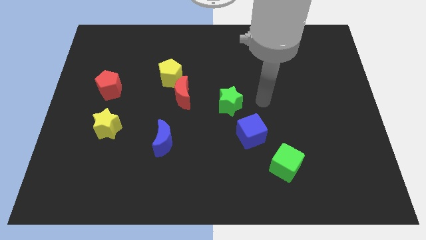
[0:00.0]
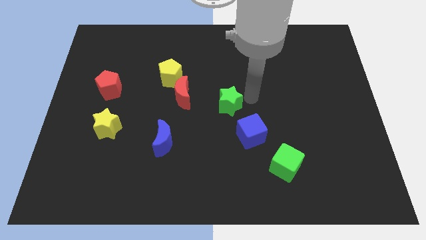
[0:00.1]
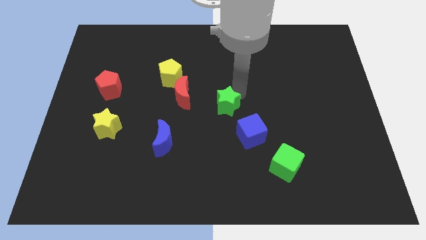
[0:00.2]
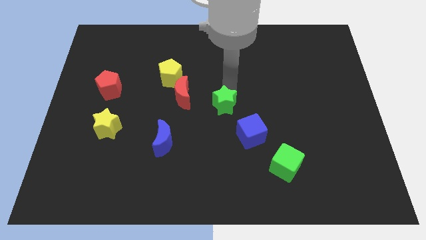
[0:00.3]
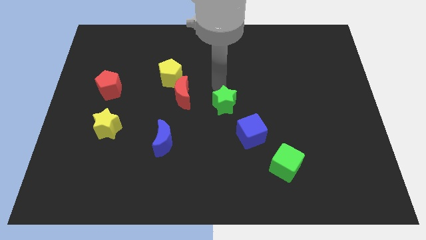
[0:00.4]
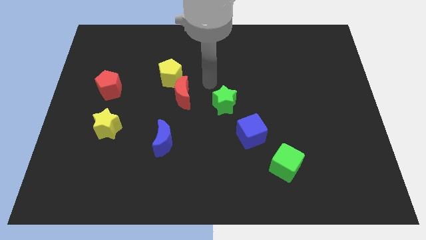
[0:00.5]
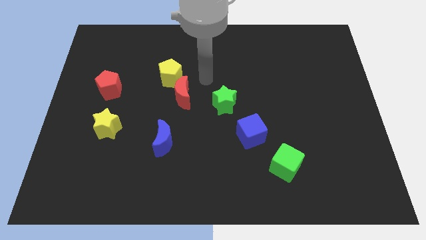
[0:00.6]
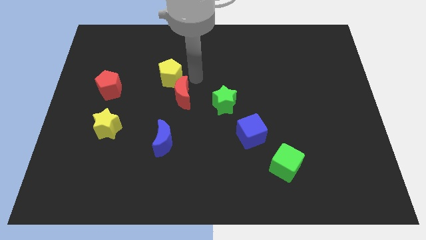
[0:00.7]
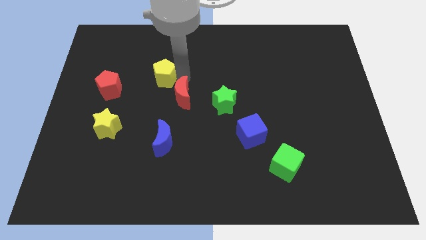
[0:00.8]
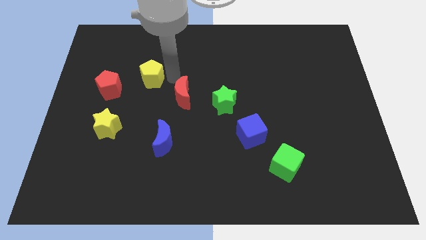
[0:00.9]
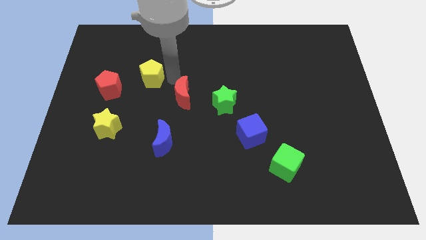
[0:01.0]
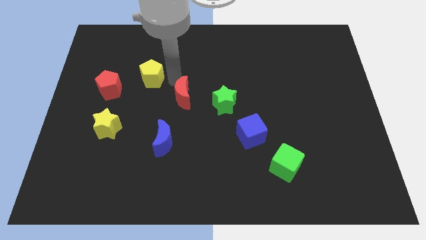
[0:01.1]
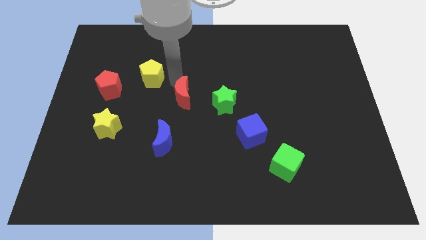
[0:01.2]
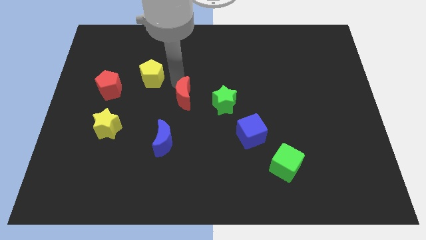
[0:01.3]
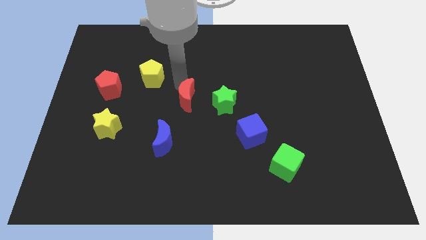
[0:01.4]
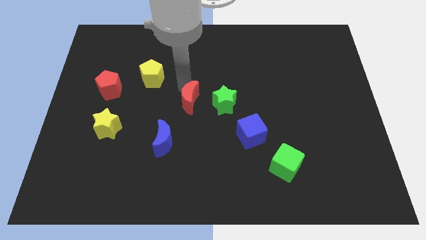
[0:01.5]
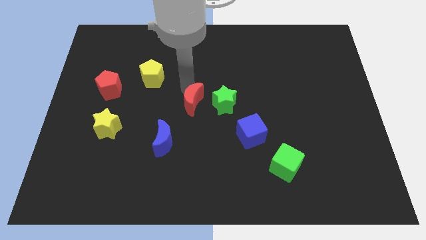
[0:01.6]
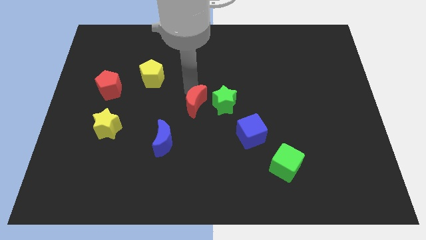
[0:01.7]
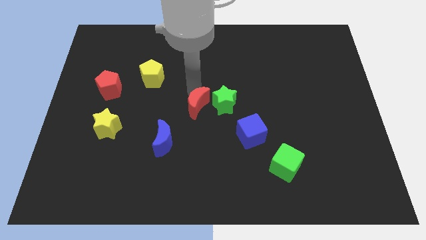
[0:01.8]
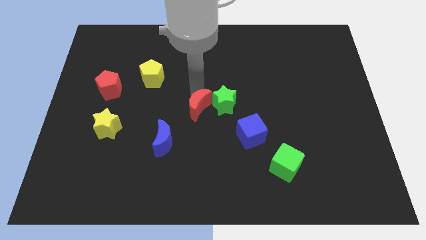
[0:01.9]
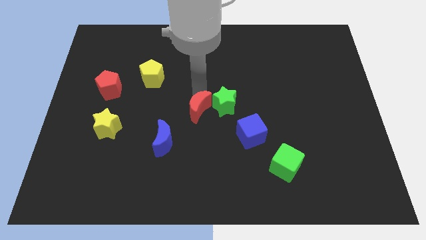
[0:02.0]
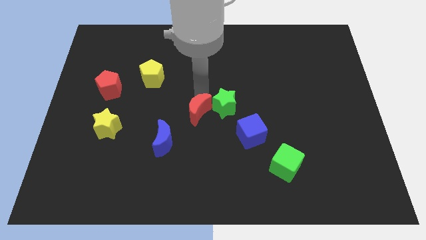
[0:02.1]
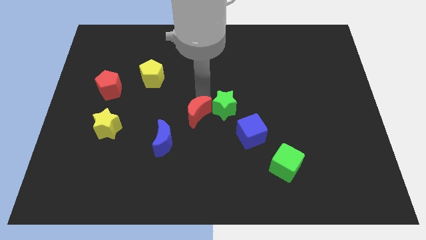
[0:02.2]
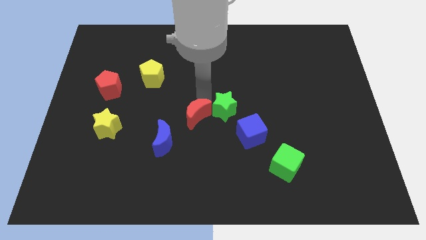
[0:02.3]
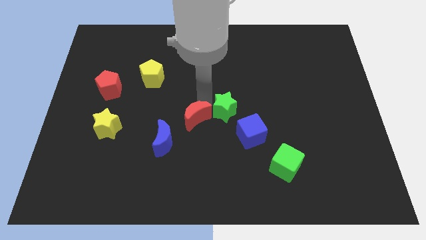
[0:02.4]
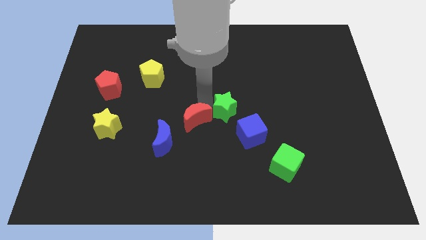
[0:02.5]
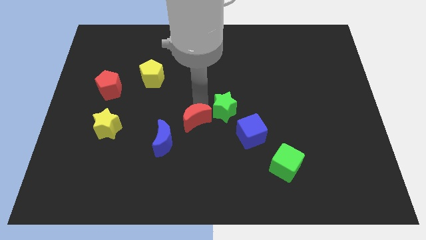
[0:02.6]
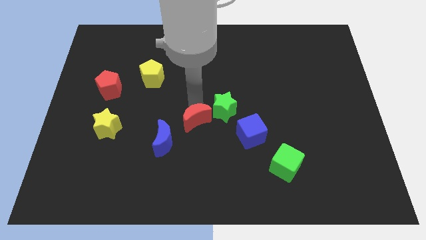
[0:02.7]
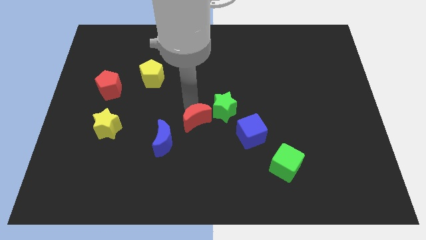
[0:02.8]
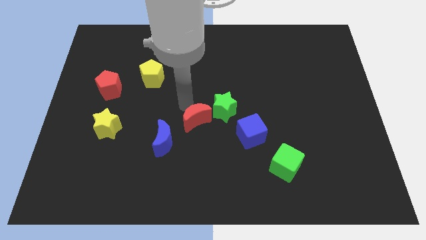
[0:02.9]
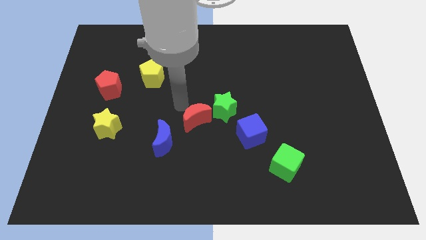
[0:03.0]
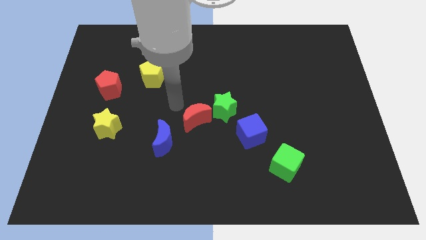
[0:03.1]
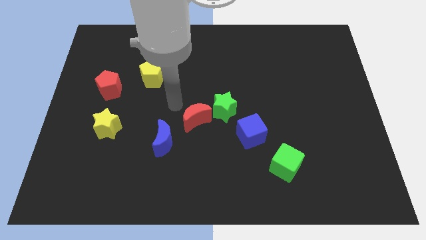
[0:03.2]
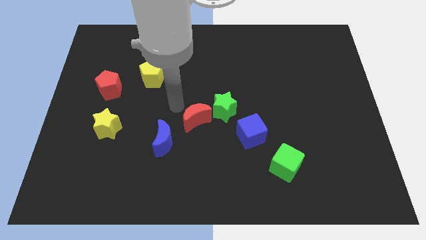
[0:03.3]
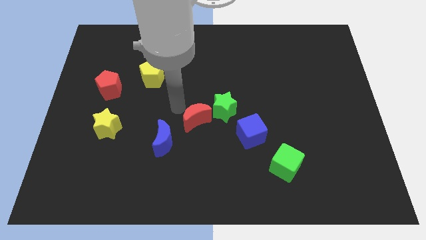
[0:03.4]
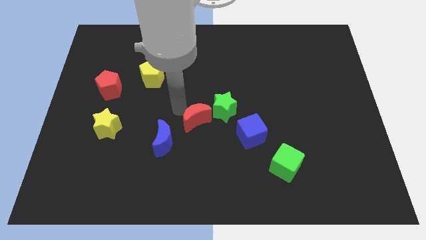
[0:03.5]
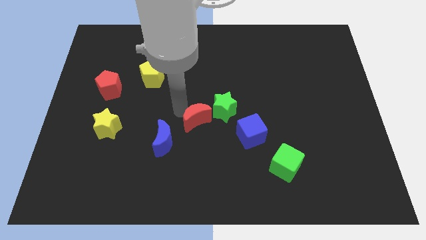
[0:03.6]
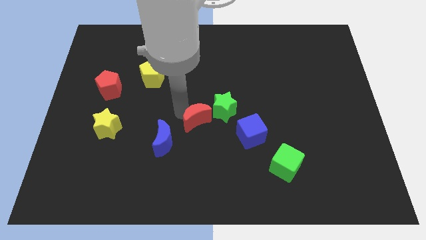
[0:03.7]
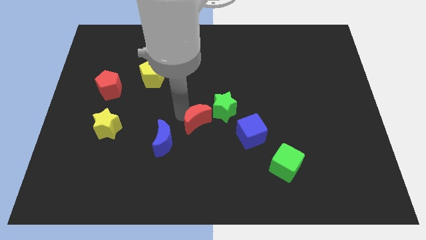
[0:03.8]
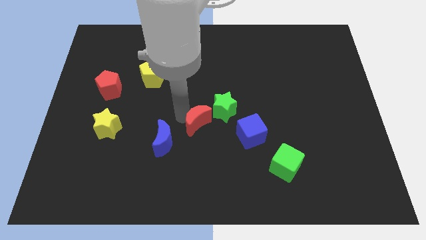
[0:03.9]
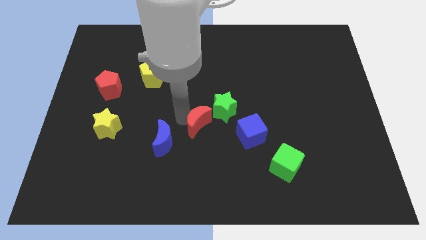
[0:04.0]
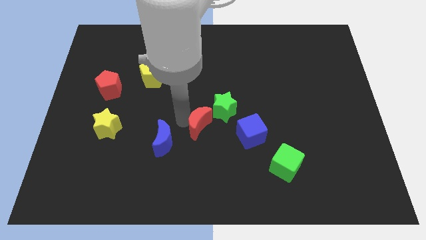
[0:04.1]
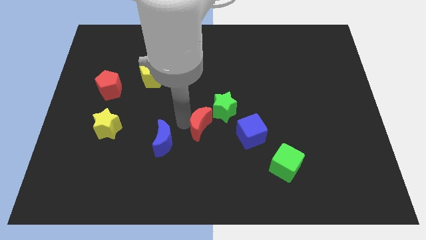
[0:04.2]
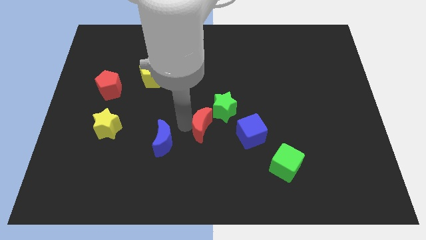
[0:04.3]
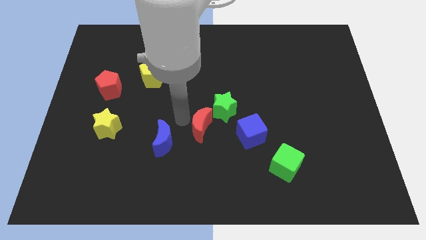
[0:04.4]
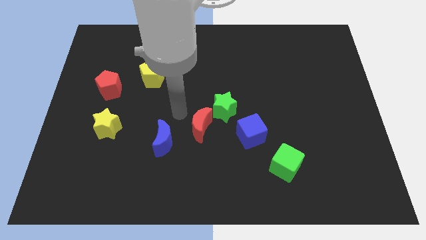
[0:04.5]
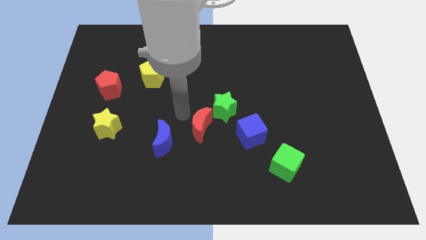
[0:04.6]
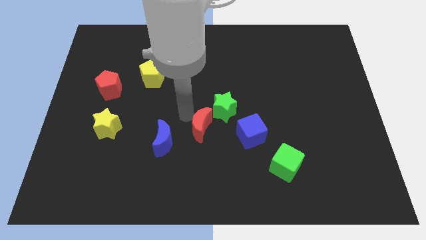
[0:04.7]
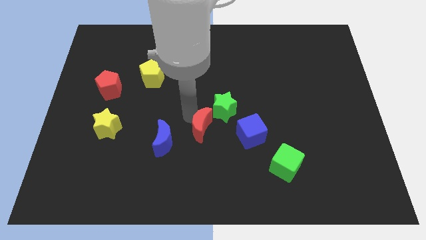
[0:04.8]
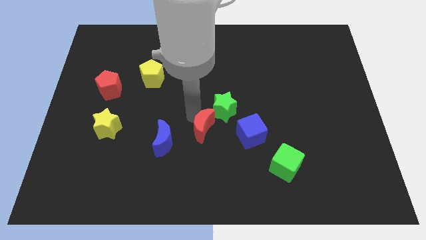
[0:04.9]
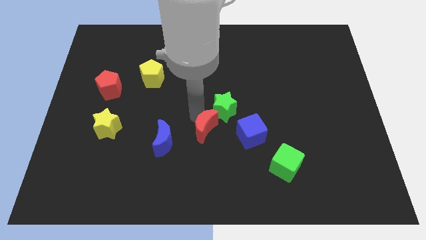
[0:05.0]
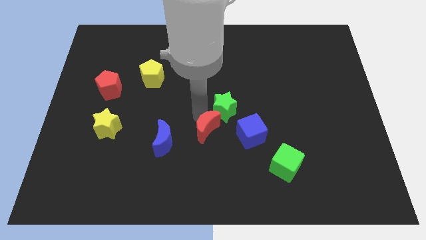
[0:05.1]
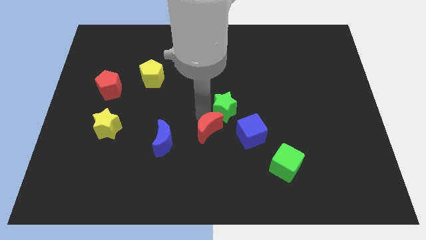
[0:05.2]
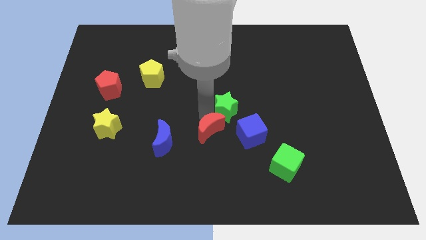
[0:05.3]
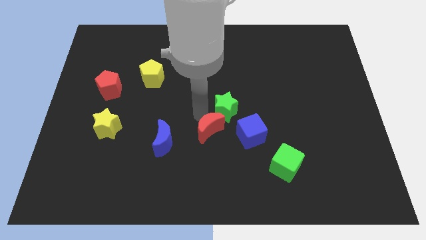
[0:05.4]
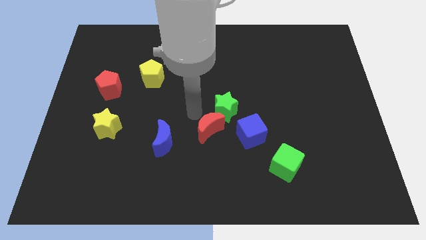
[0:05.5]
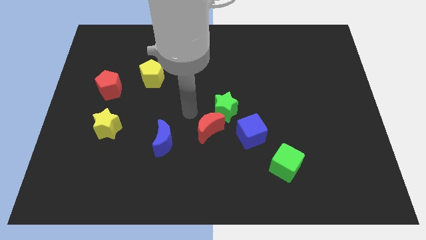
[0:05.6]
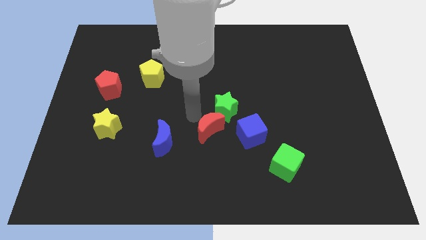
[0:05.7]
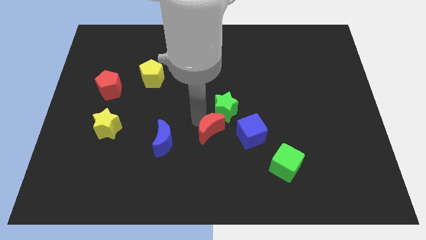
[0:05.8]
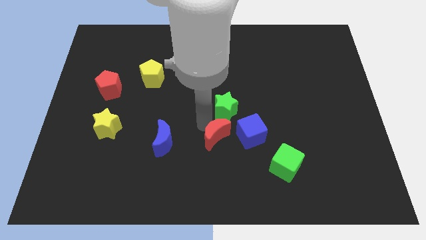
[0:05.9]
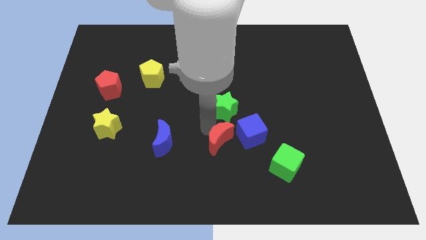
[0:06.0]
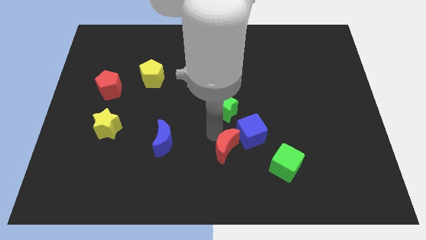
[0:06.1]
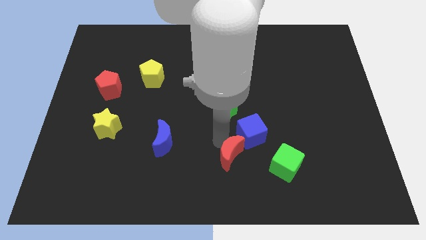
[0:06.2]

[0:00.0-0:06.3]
put the red moon to the bottom side of the blue cube
